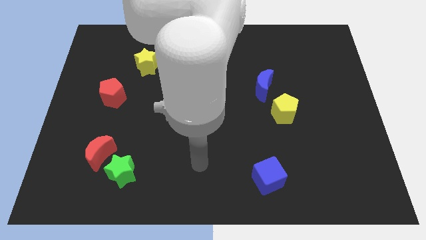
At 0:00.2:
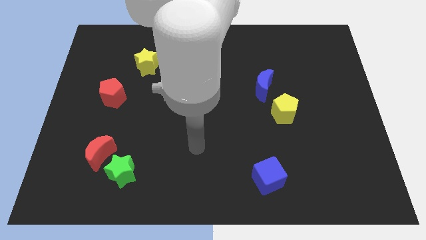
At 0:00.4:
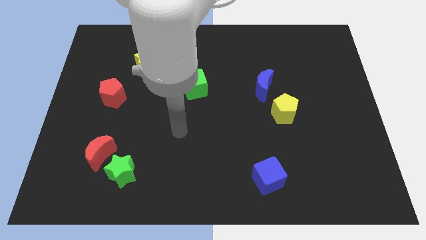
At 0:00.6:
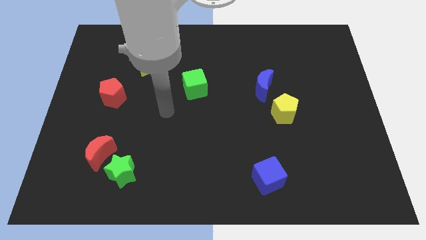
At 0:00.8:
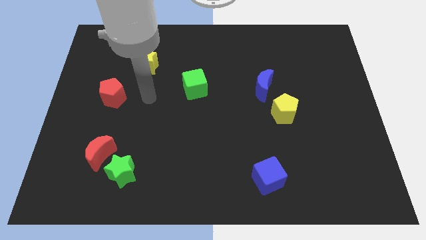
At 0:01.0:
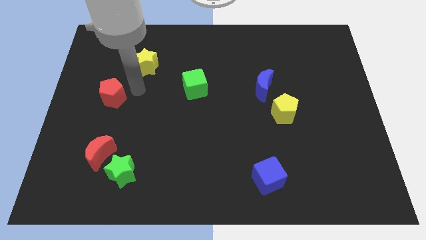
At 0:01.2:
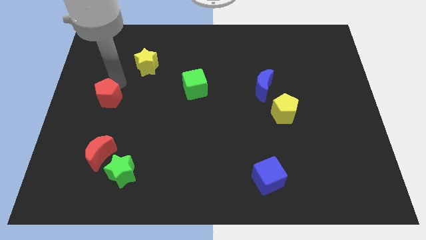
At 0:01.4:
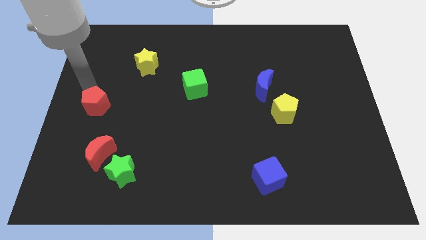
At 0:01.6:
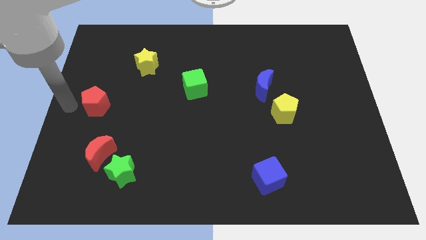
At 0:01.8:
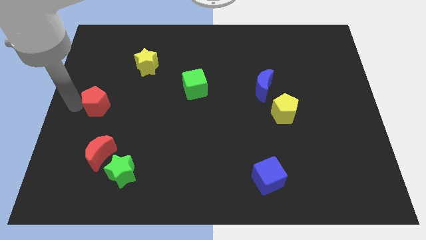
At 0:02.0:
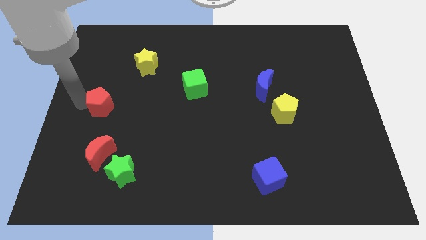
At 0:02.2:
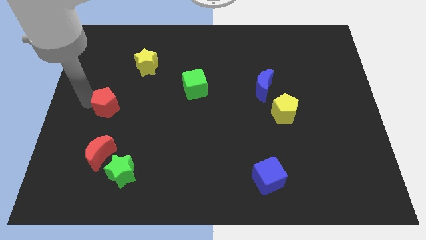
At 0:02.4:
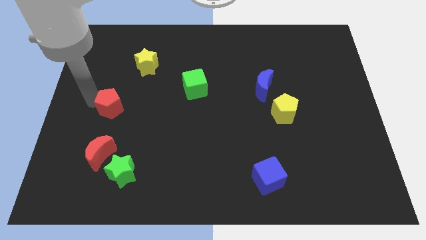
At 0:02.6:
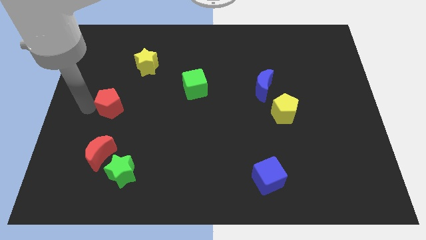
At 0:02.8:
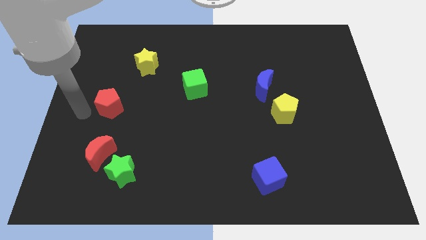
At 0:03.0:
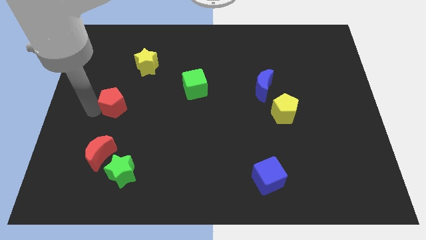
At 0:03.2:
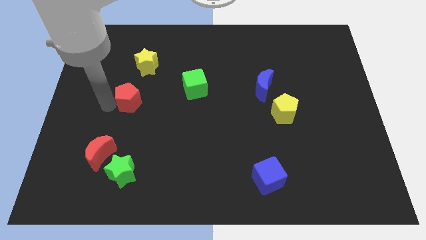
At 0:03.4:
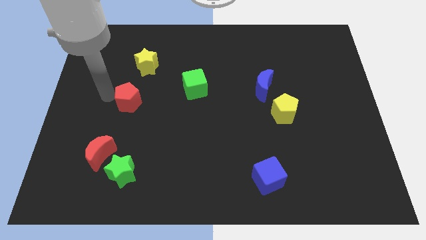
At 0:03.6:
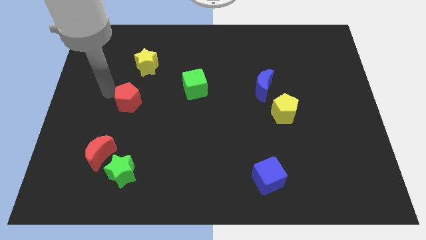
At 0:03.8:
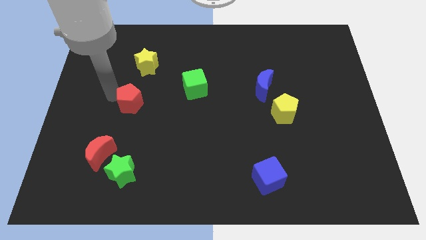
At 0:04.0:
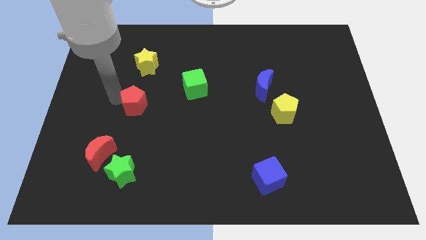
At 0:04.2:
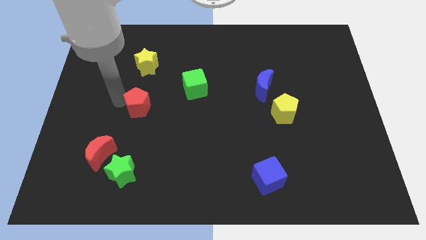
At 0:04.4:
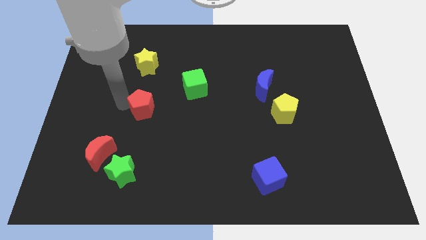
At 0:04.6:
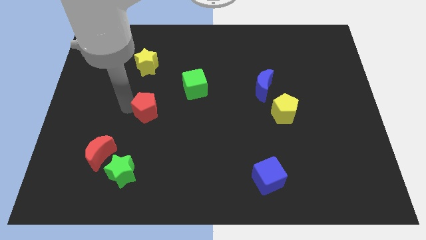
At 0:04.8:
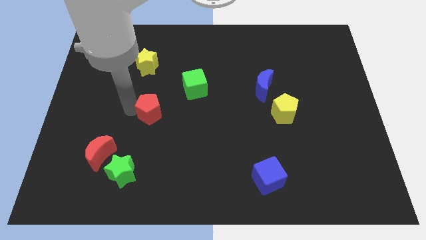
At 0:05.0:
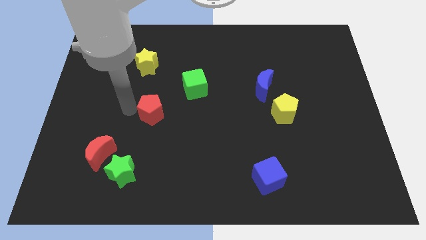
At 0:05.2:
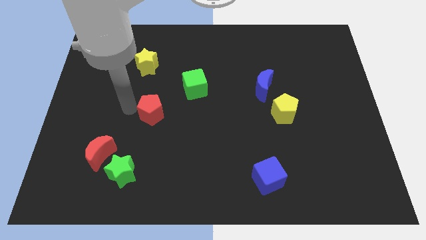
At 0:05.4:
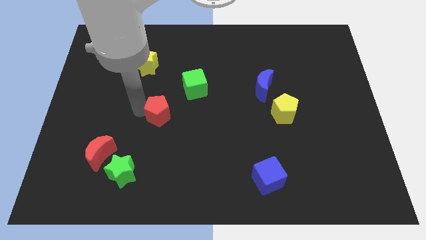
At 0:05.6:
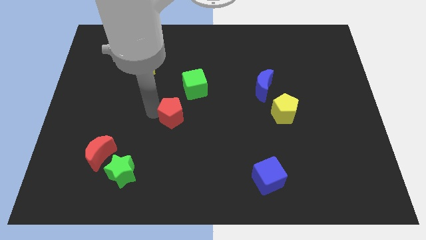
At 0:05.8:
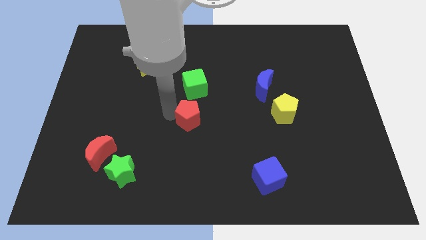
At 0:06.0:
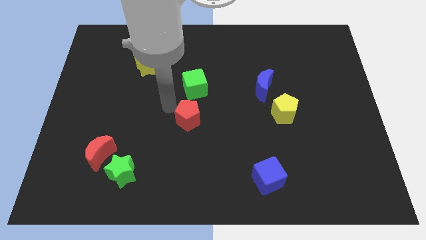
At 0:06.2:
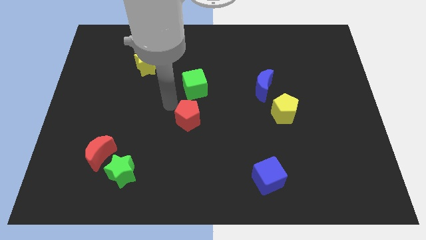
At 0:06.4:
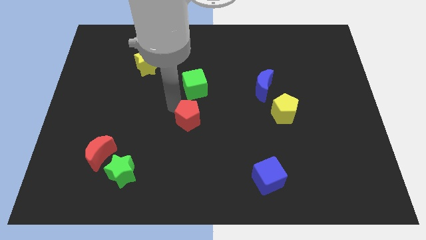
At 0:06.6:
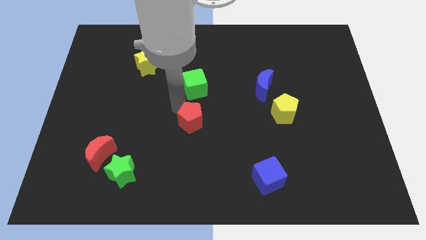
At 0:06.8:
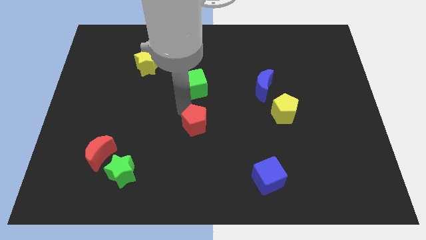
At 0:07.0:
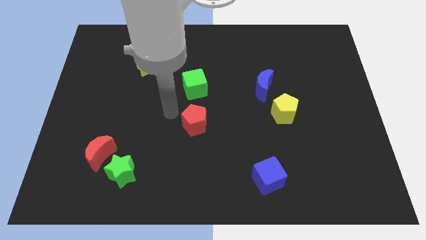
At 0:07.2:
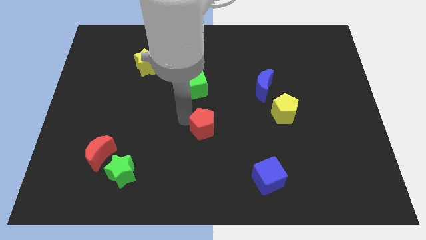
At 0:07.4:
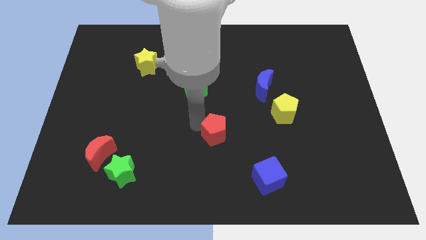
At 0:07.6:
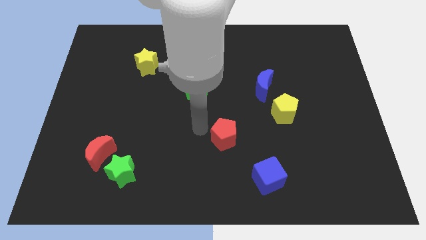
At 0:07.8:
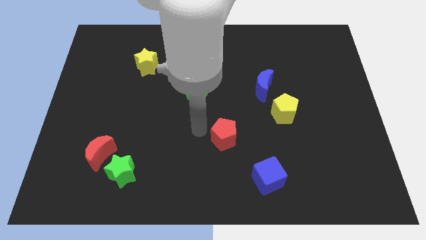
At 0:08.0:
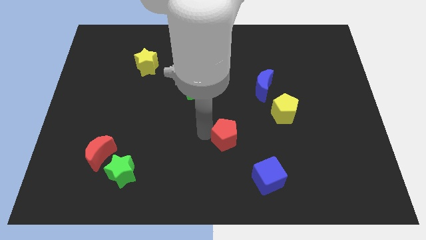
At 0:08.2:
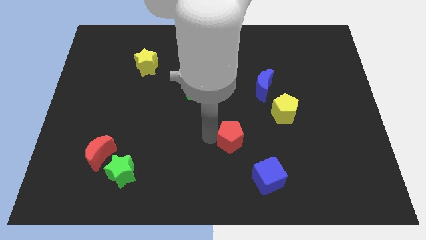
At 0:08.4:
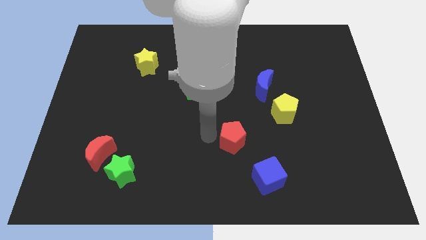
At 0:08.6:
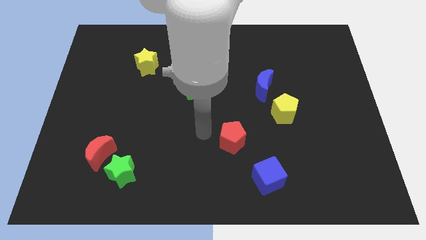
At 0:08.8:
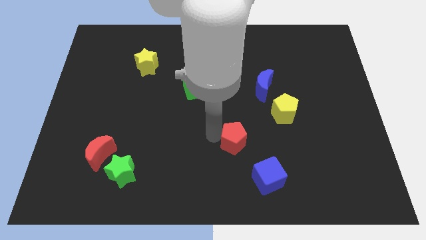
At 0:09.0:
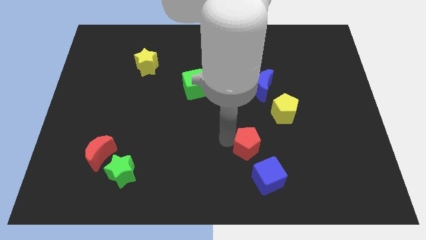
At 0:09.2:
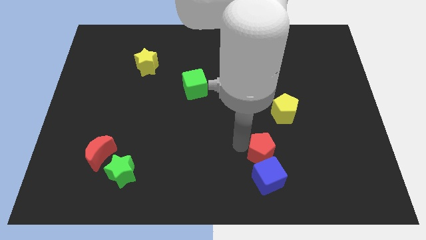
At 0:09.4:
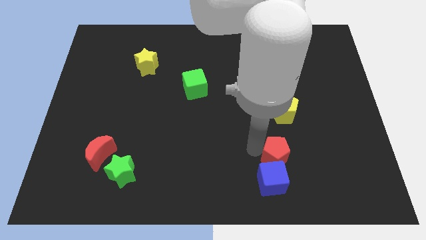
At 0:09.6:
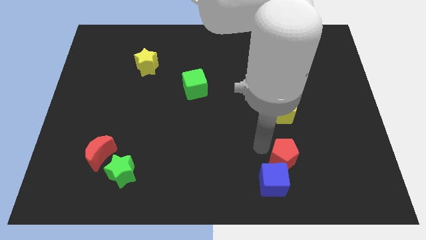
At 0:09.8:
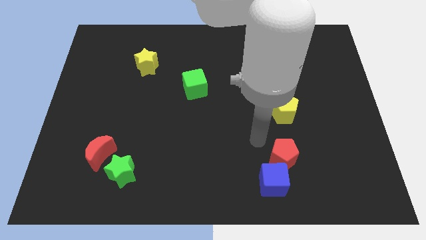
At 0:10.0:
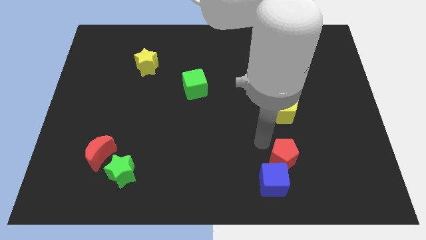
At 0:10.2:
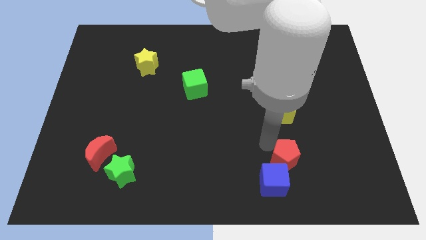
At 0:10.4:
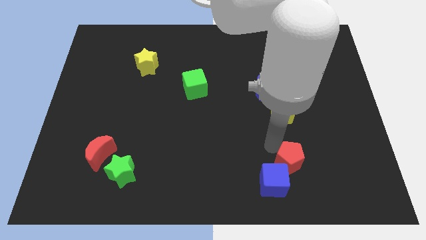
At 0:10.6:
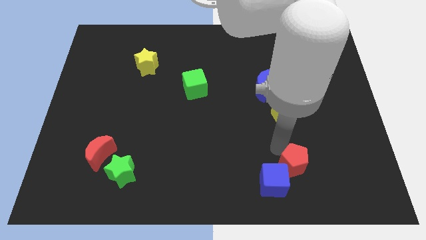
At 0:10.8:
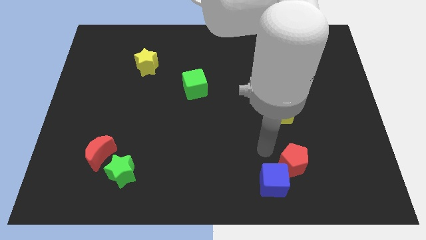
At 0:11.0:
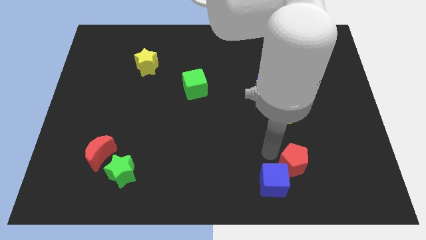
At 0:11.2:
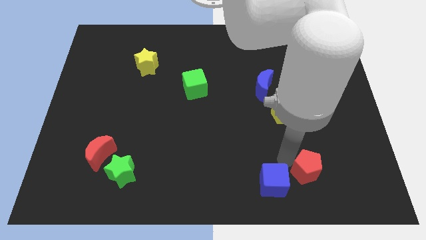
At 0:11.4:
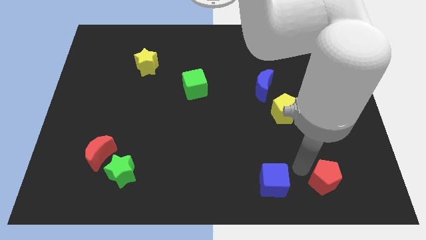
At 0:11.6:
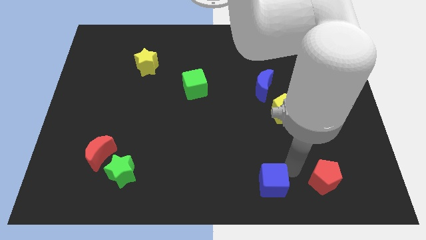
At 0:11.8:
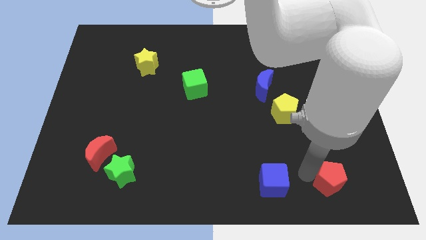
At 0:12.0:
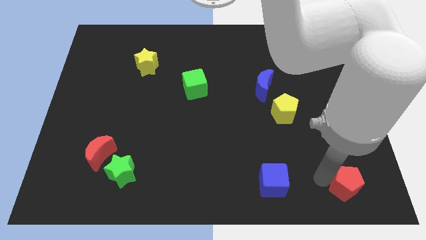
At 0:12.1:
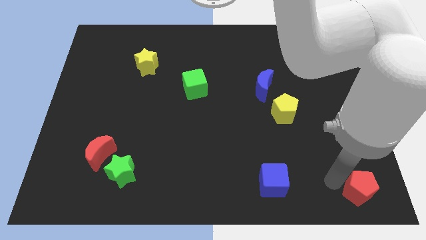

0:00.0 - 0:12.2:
put the red pentagon to the bottom right of the board
